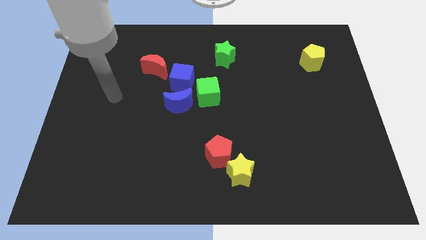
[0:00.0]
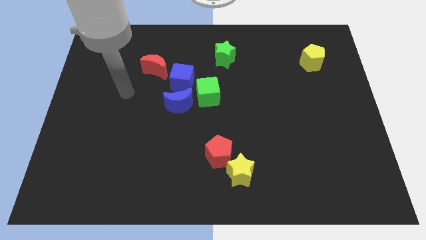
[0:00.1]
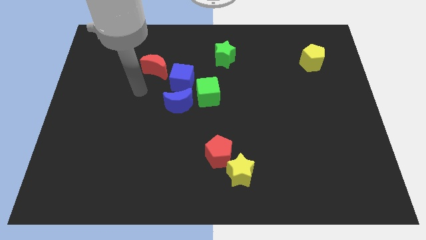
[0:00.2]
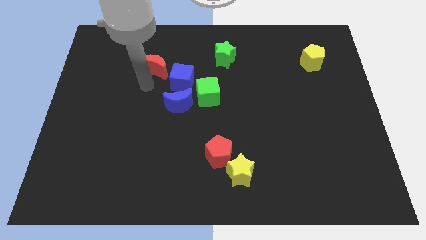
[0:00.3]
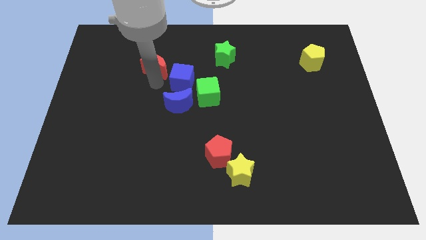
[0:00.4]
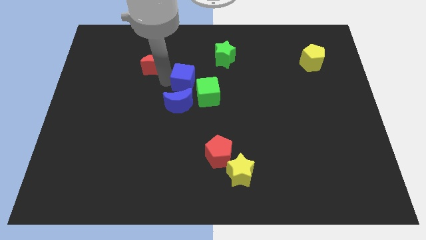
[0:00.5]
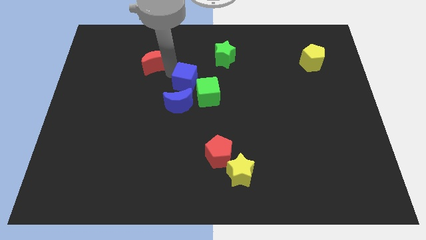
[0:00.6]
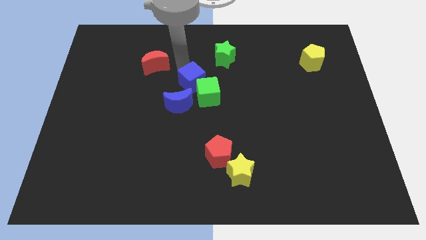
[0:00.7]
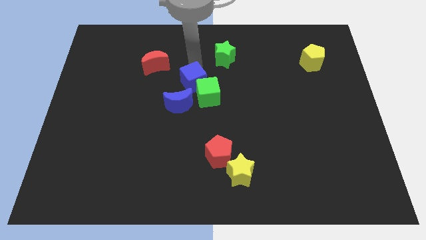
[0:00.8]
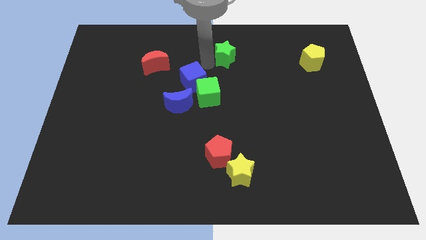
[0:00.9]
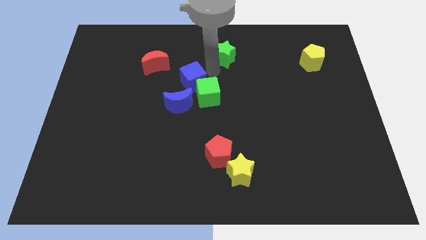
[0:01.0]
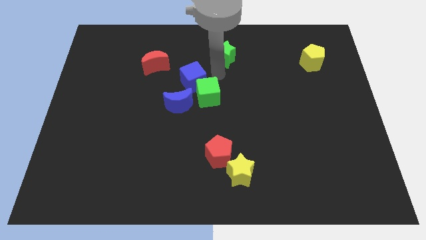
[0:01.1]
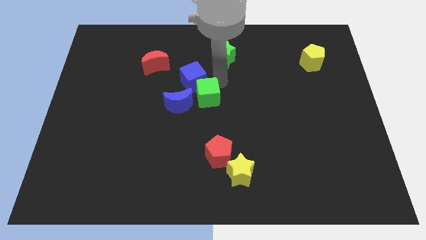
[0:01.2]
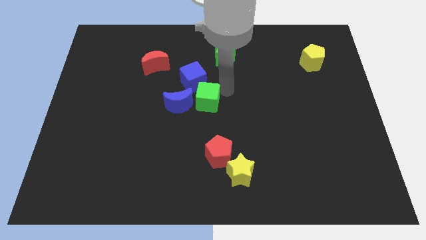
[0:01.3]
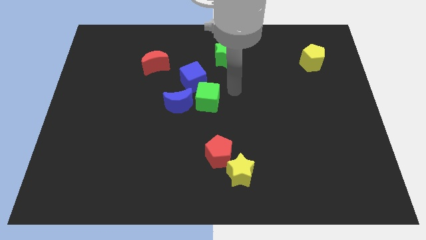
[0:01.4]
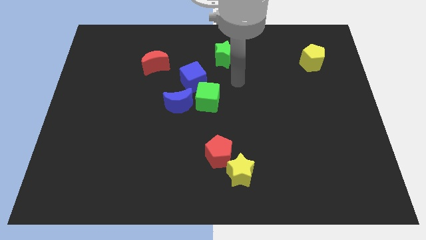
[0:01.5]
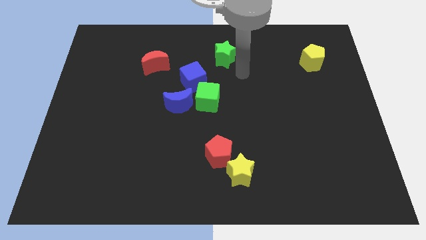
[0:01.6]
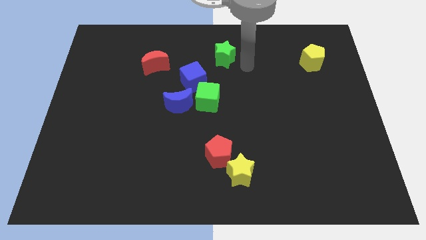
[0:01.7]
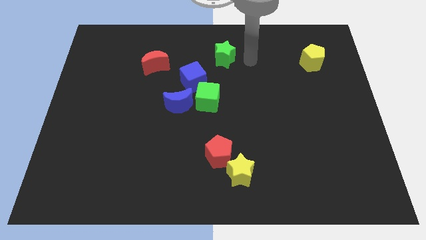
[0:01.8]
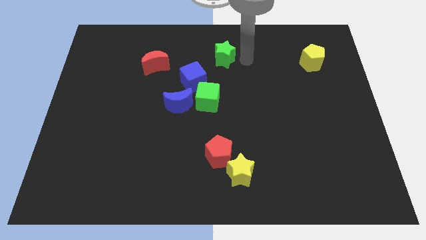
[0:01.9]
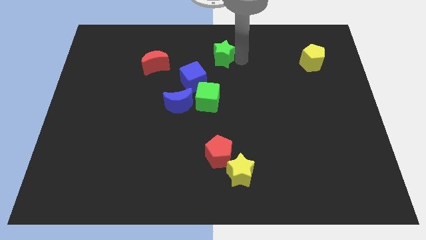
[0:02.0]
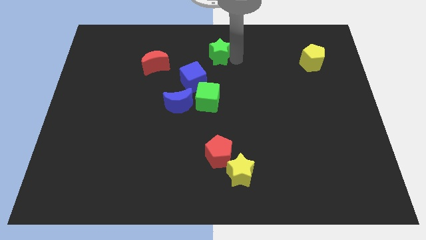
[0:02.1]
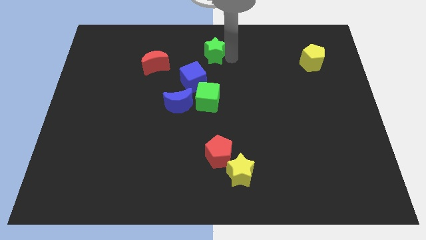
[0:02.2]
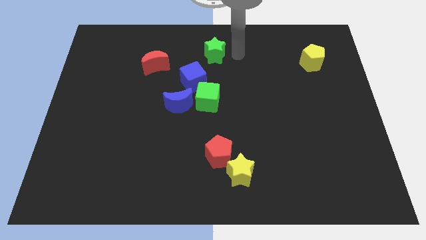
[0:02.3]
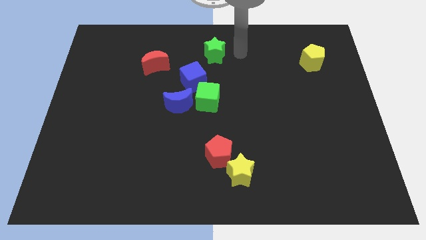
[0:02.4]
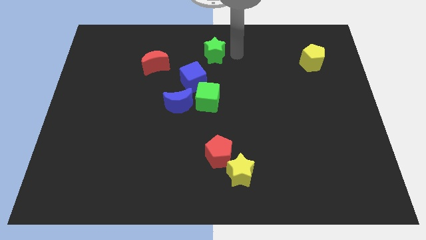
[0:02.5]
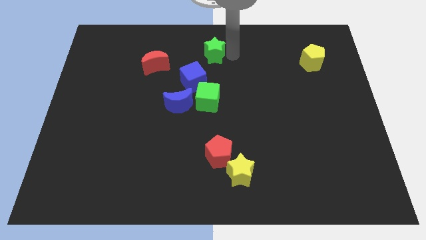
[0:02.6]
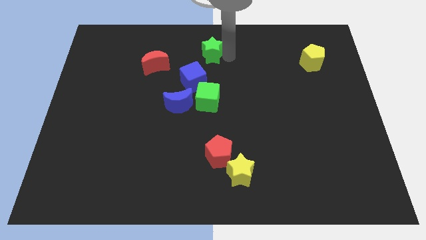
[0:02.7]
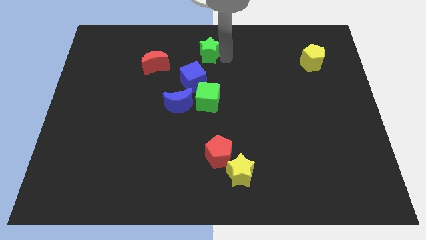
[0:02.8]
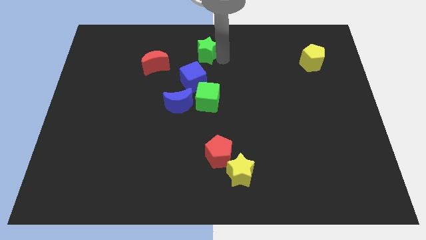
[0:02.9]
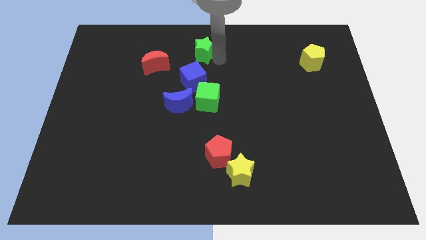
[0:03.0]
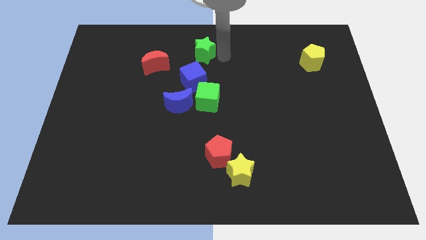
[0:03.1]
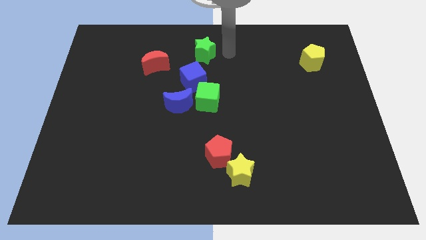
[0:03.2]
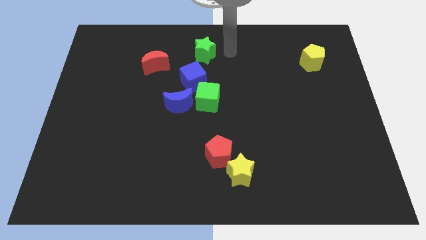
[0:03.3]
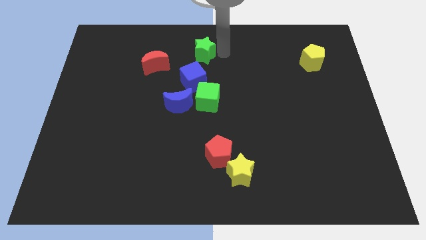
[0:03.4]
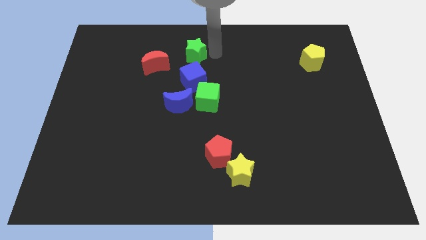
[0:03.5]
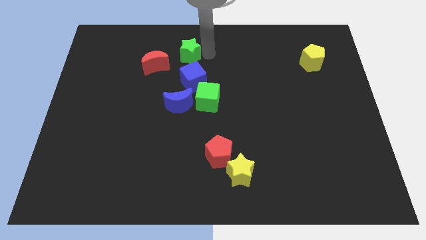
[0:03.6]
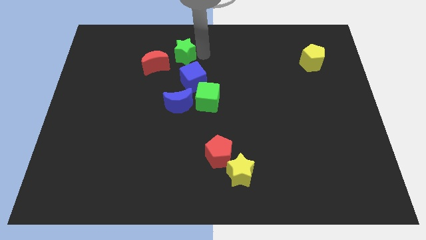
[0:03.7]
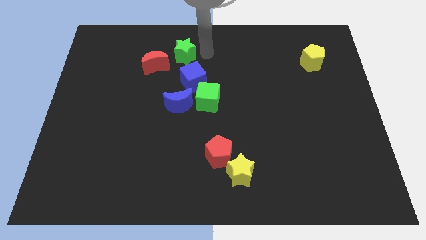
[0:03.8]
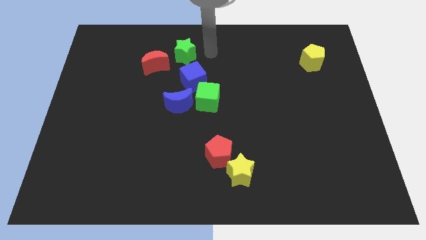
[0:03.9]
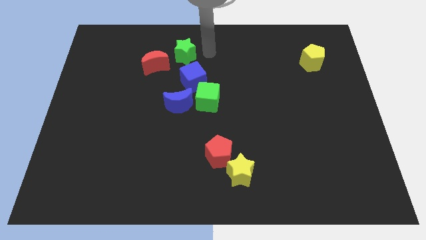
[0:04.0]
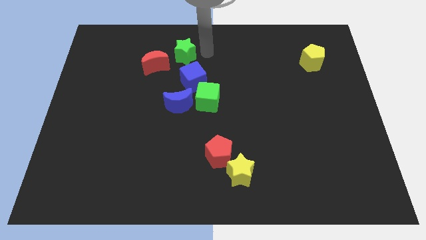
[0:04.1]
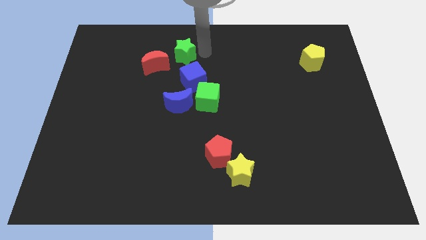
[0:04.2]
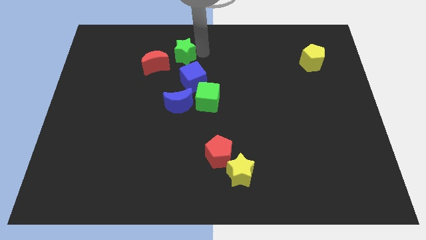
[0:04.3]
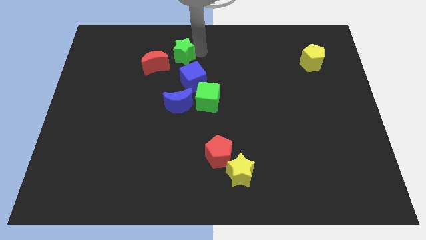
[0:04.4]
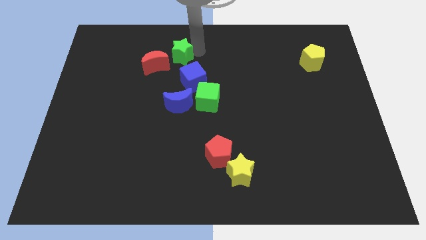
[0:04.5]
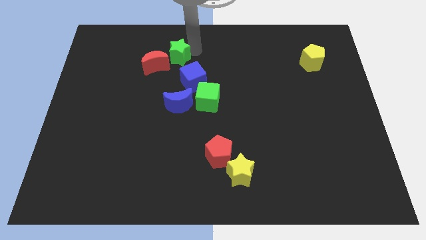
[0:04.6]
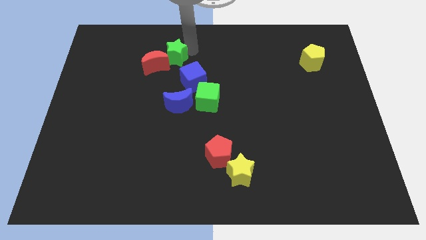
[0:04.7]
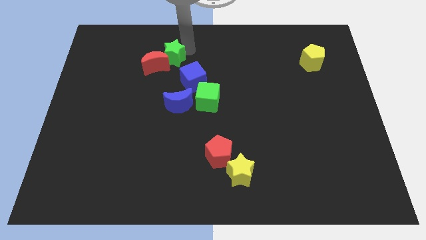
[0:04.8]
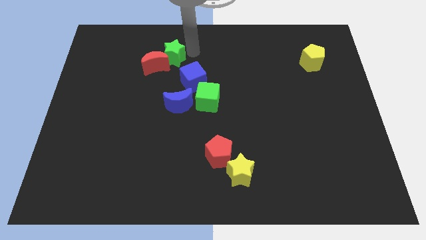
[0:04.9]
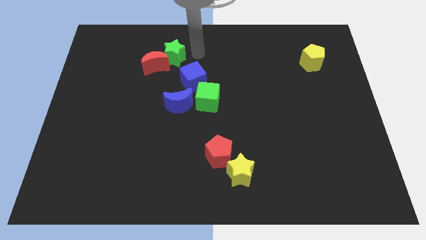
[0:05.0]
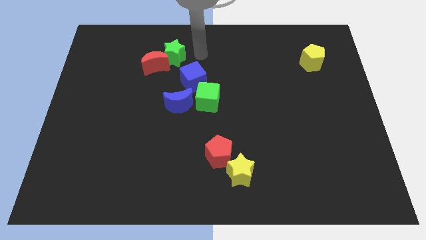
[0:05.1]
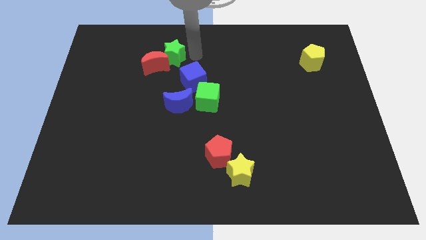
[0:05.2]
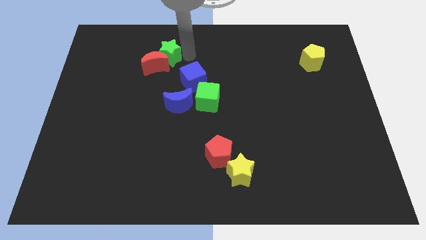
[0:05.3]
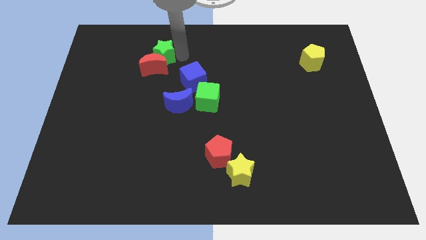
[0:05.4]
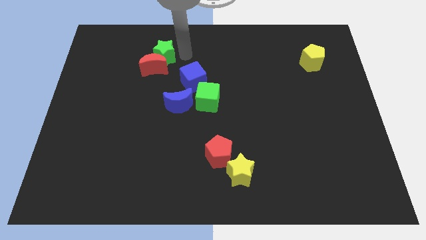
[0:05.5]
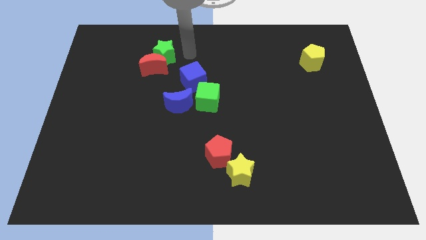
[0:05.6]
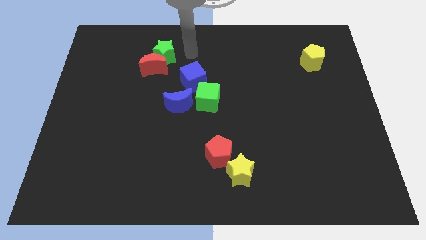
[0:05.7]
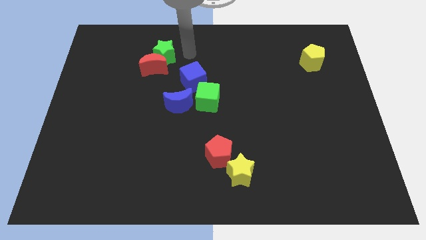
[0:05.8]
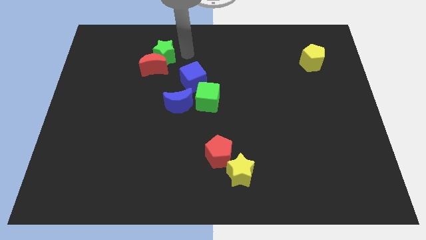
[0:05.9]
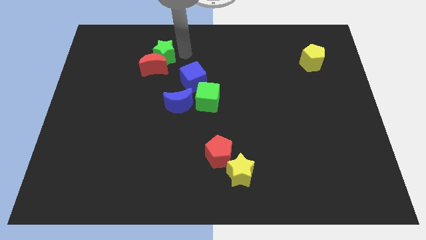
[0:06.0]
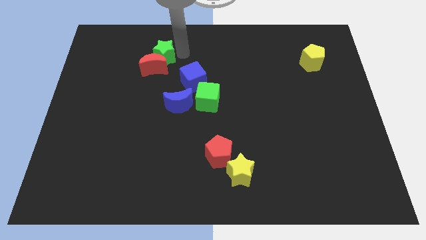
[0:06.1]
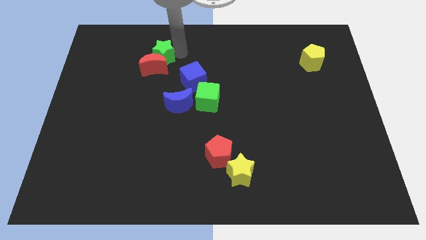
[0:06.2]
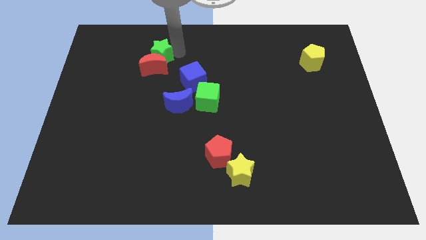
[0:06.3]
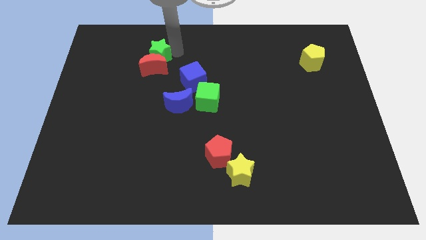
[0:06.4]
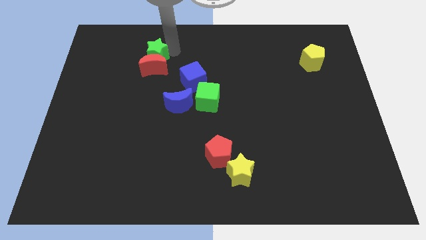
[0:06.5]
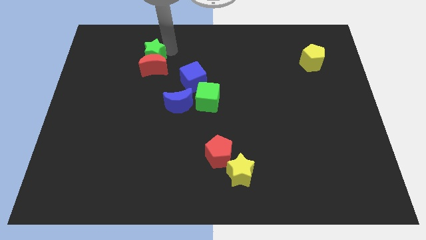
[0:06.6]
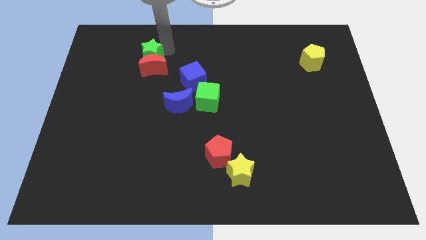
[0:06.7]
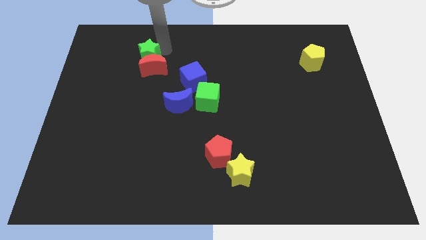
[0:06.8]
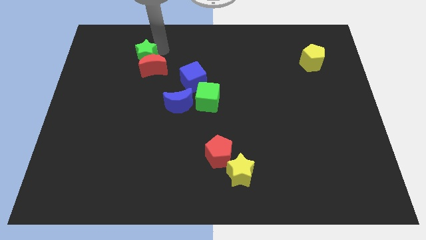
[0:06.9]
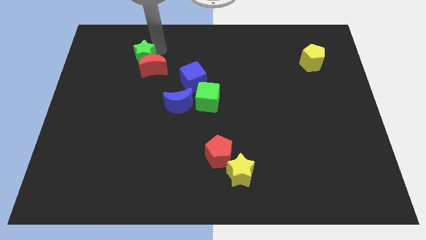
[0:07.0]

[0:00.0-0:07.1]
put the green star left of the red moon
